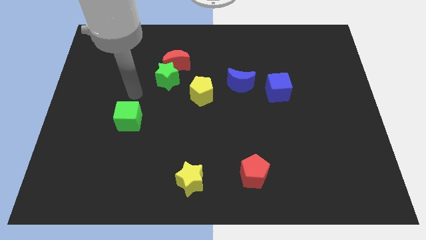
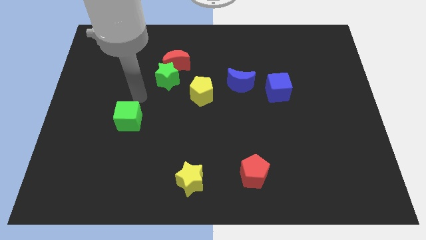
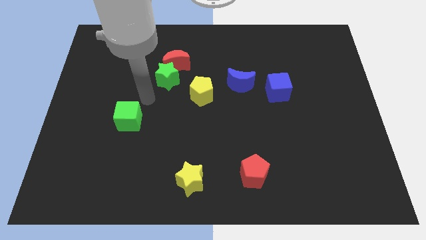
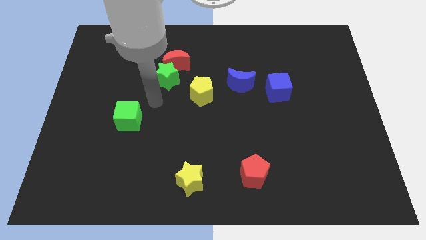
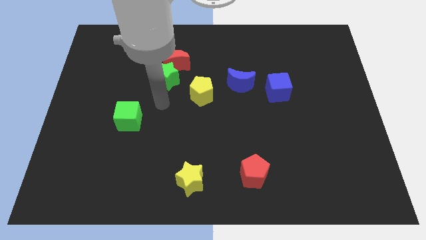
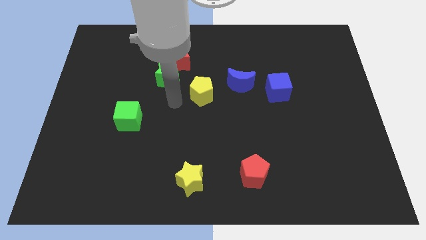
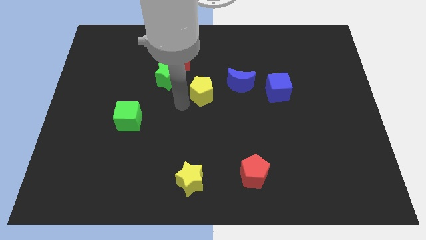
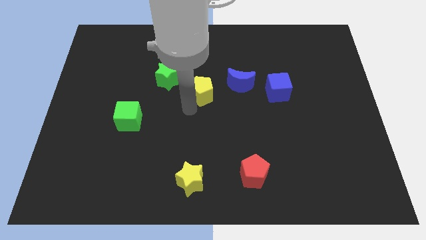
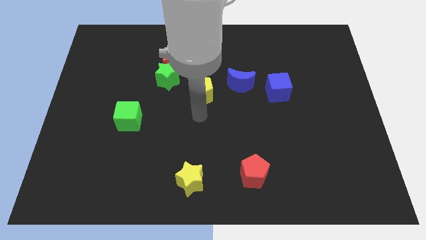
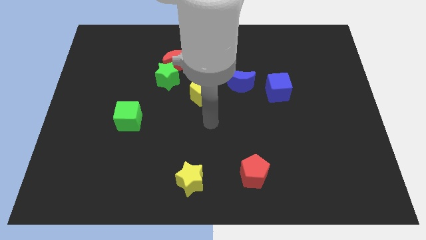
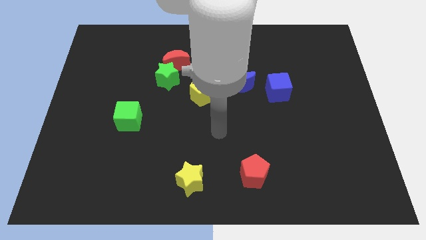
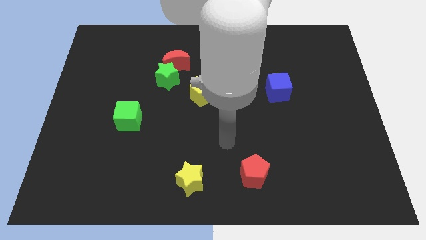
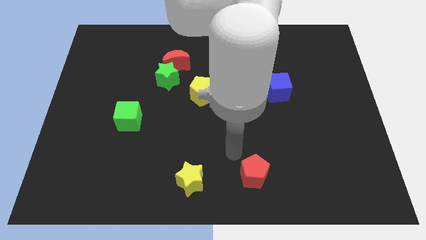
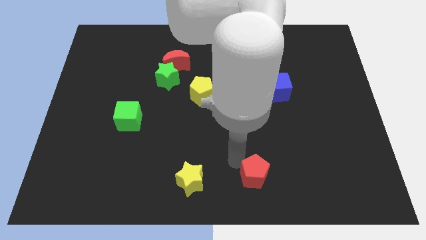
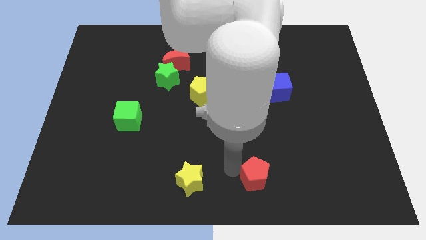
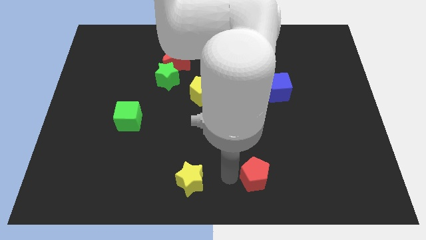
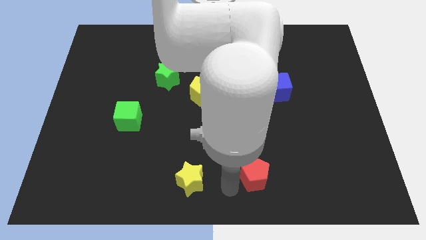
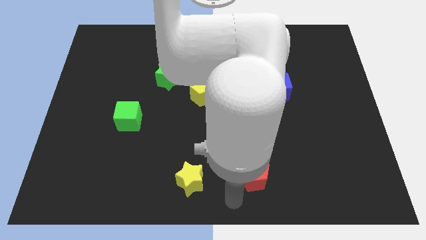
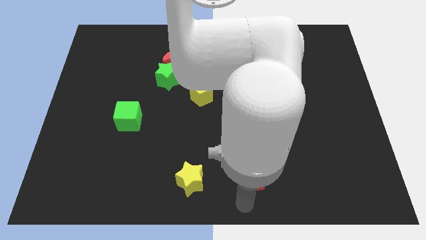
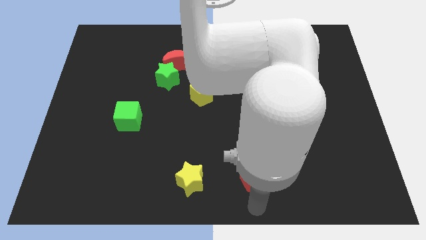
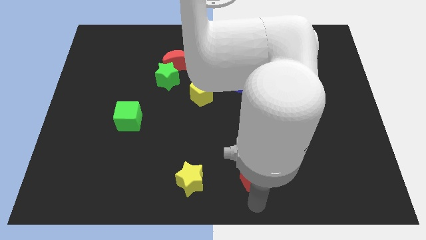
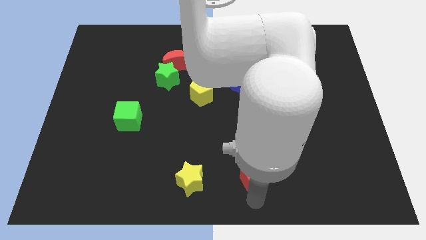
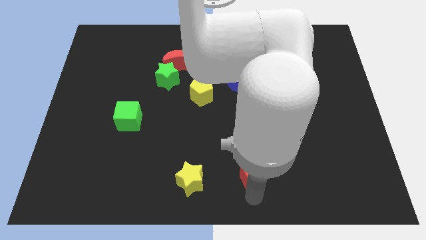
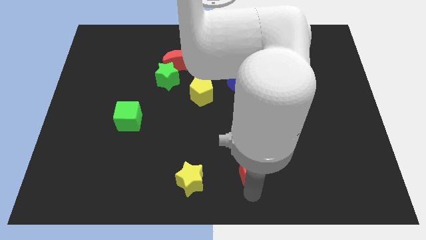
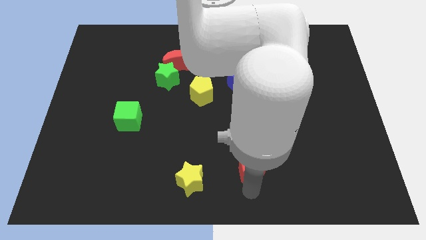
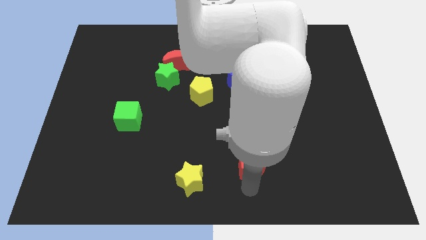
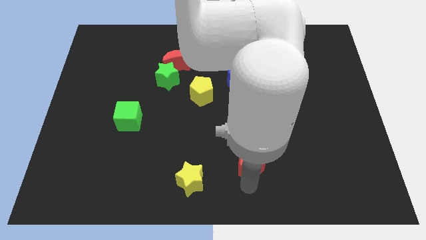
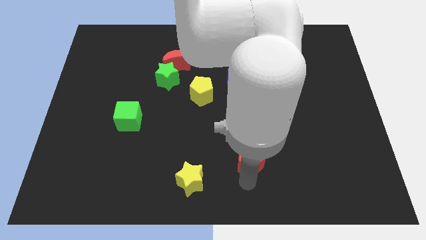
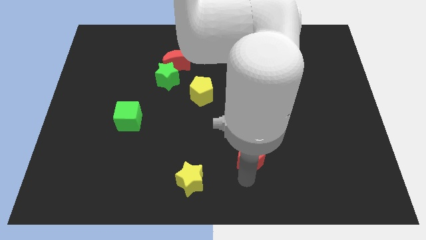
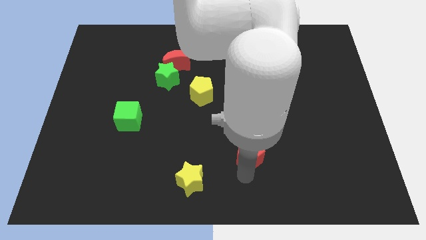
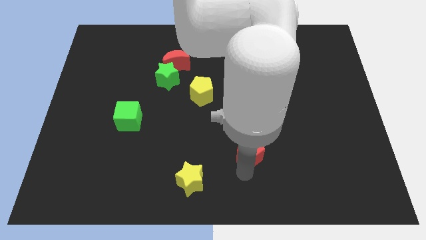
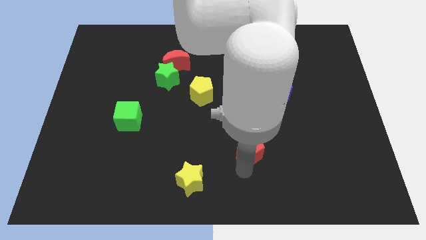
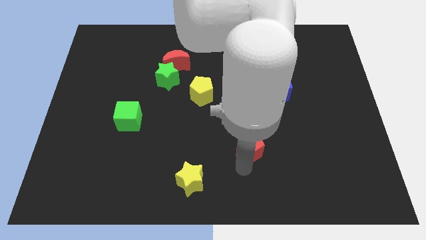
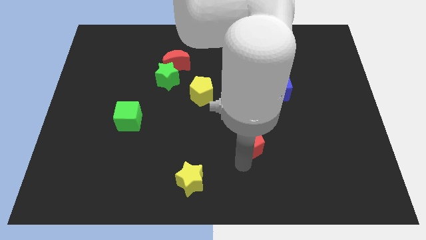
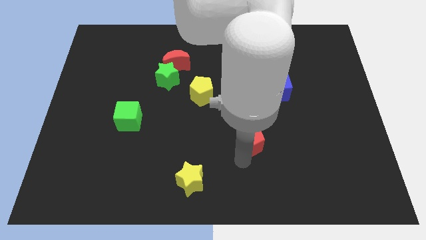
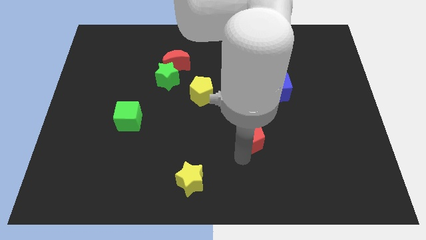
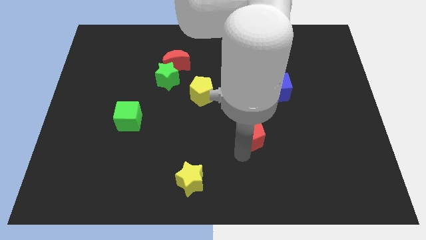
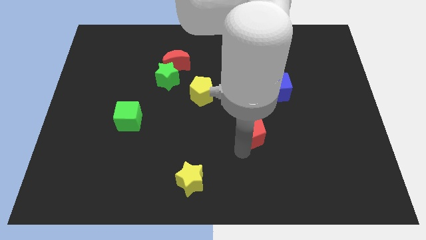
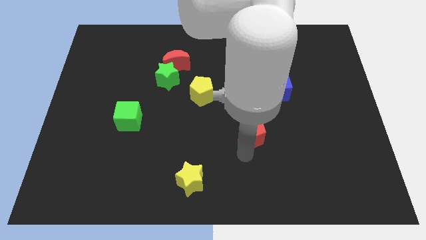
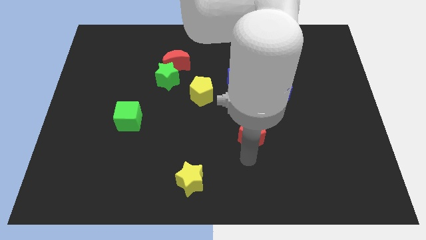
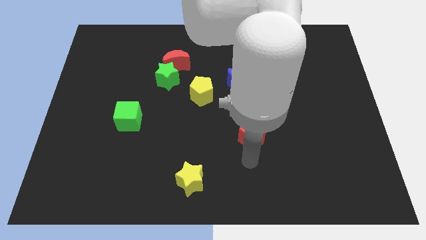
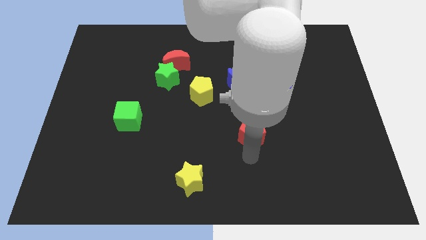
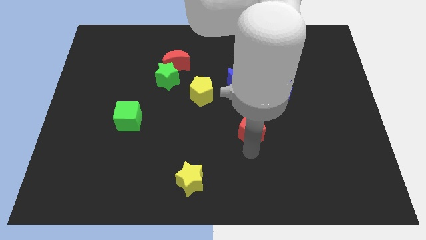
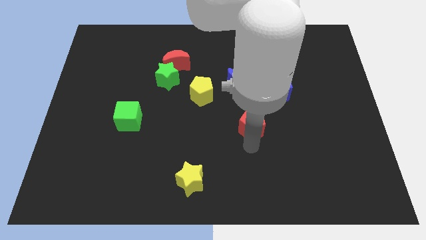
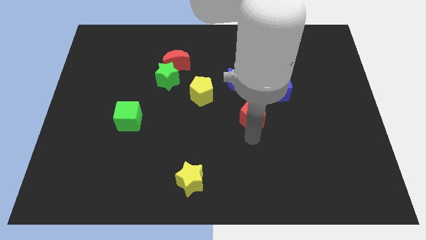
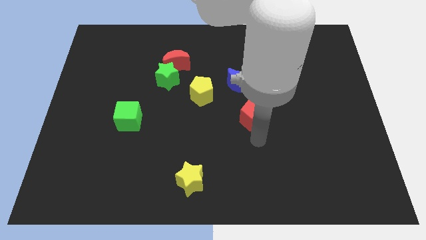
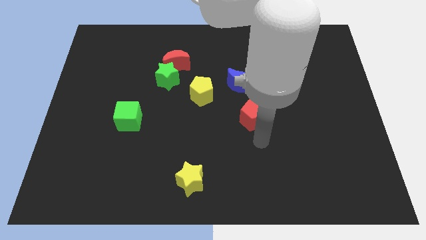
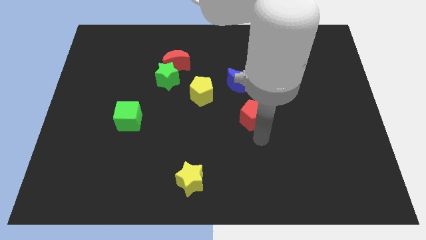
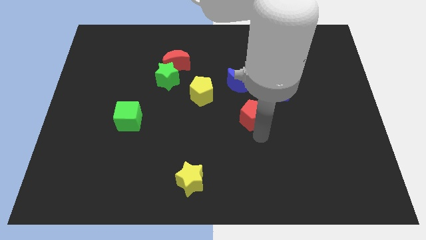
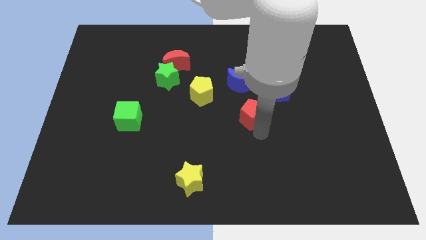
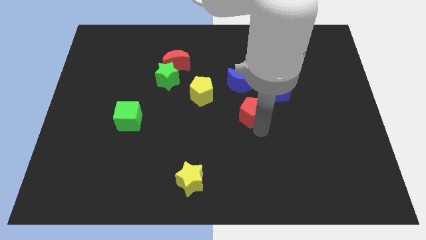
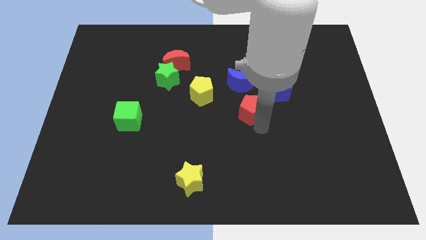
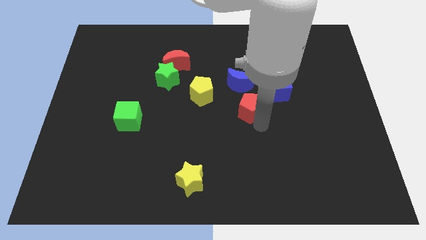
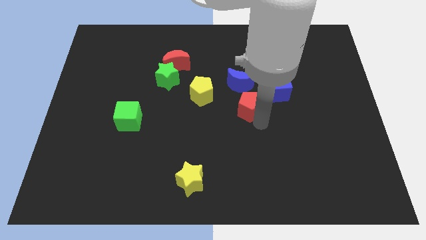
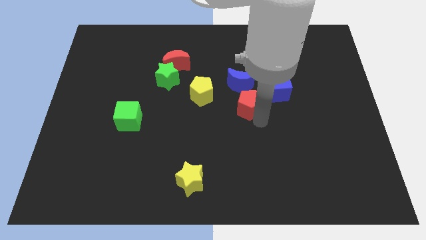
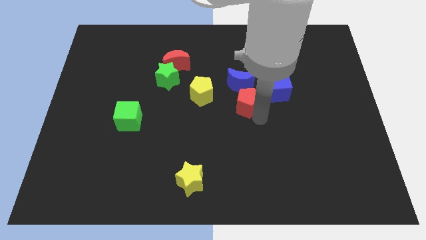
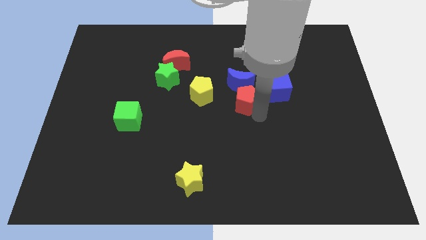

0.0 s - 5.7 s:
put the red pentagon next to the blue moon
